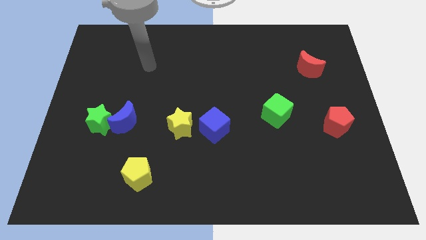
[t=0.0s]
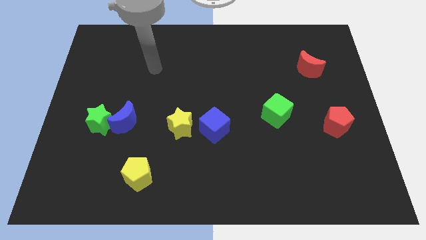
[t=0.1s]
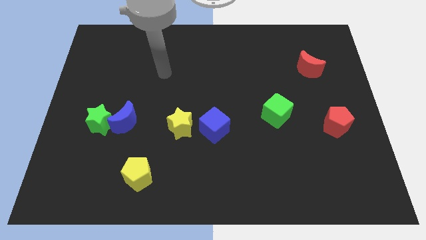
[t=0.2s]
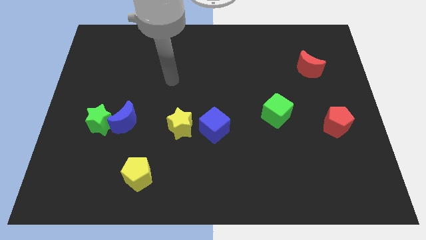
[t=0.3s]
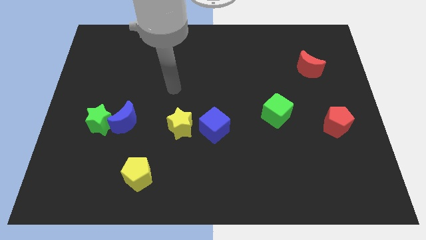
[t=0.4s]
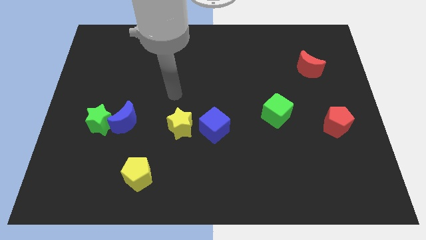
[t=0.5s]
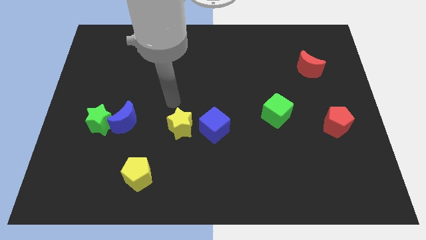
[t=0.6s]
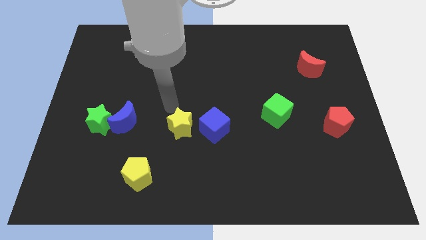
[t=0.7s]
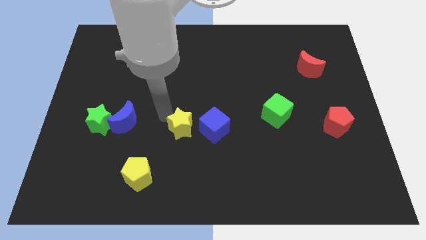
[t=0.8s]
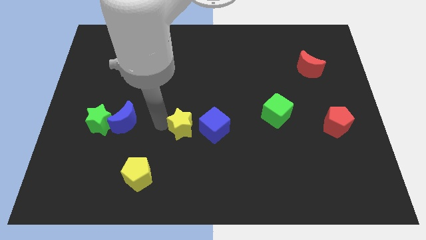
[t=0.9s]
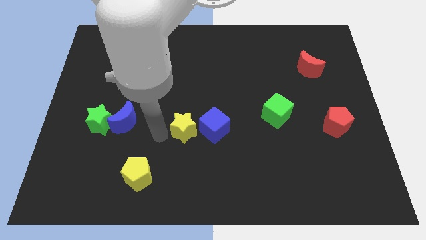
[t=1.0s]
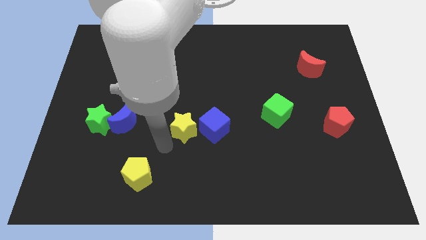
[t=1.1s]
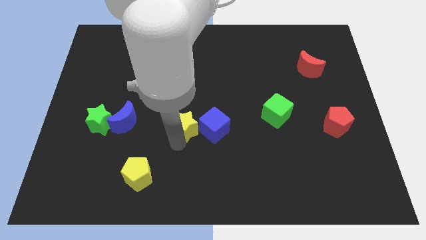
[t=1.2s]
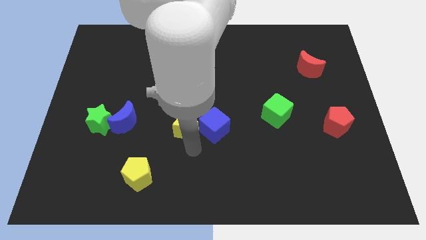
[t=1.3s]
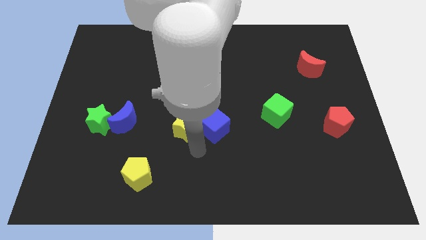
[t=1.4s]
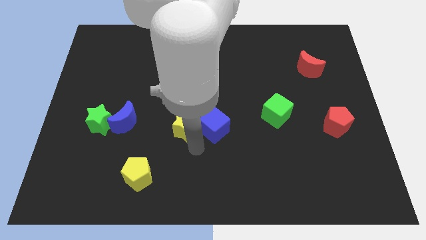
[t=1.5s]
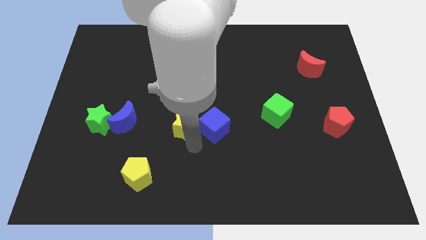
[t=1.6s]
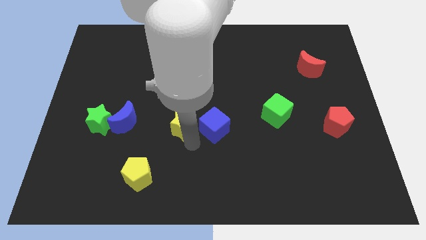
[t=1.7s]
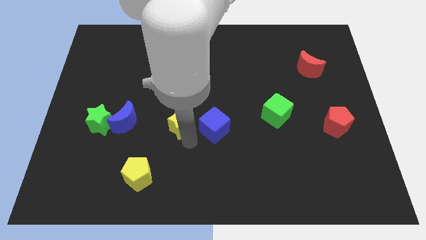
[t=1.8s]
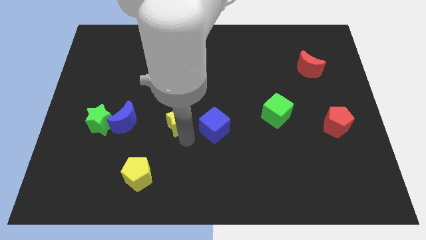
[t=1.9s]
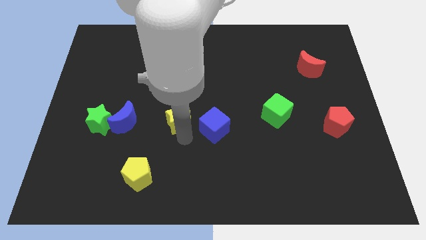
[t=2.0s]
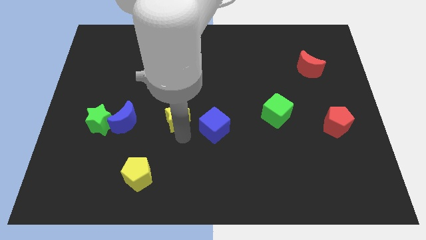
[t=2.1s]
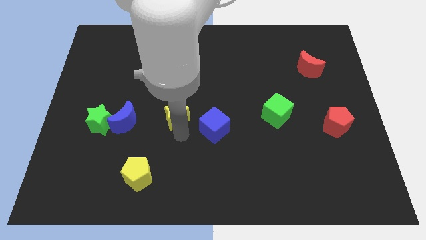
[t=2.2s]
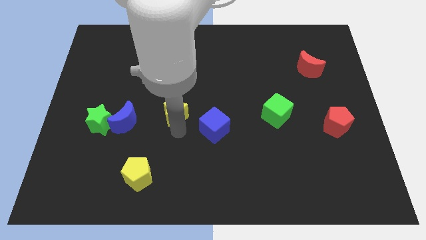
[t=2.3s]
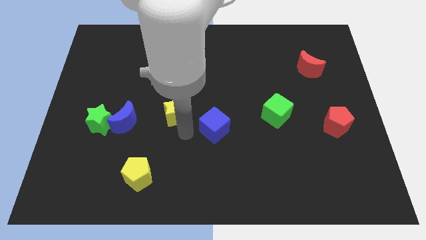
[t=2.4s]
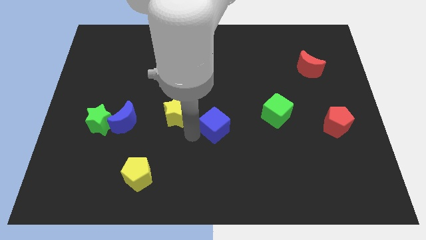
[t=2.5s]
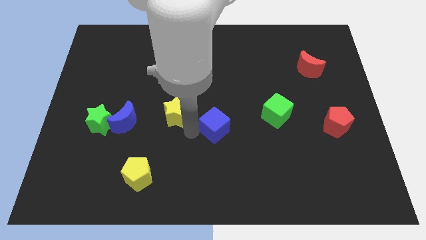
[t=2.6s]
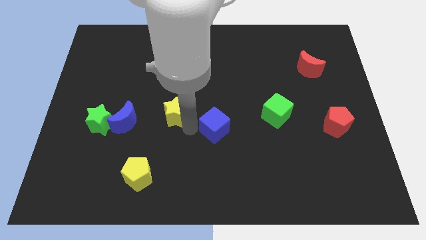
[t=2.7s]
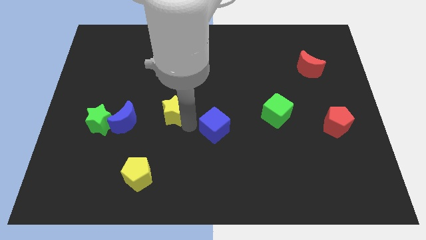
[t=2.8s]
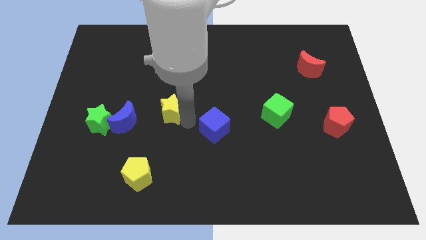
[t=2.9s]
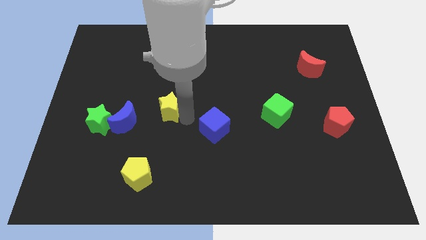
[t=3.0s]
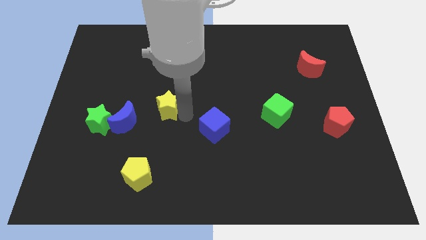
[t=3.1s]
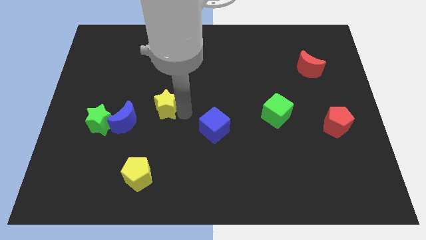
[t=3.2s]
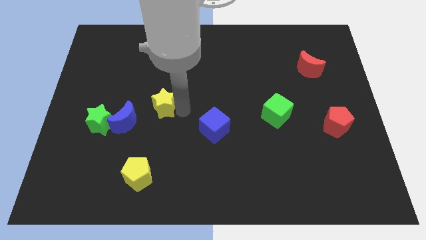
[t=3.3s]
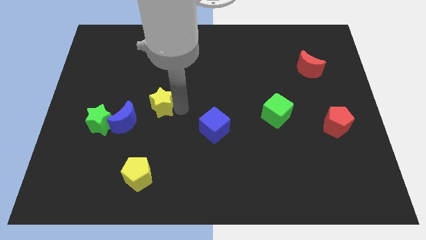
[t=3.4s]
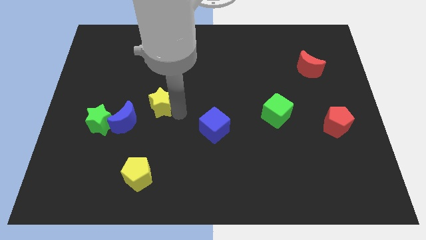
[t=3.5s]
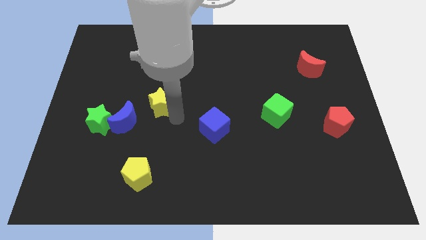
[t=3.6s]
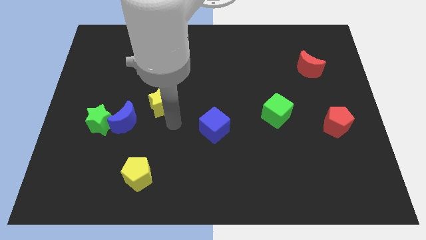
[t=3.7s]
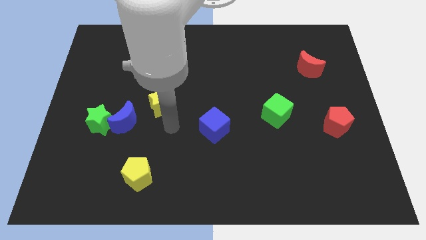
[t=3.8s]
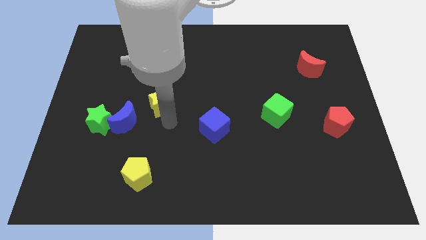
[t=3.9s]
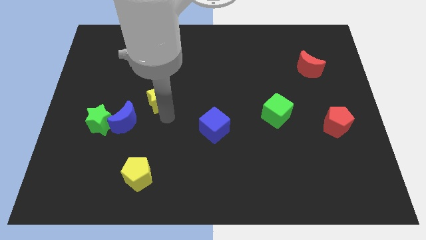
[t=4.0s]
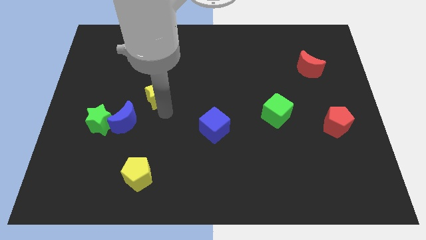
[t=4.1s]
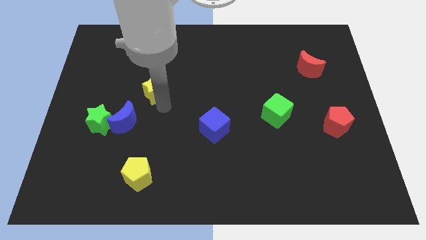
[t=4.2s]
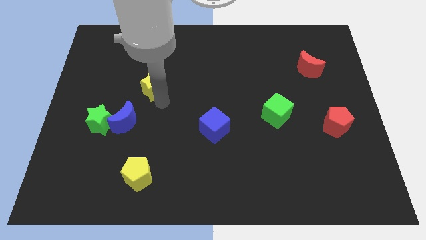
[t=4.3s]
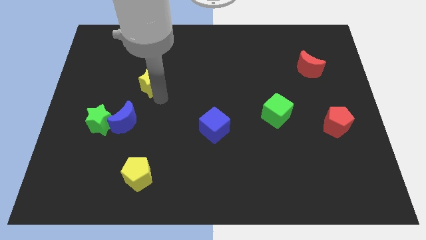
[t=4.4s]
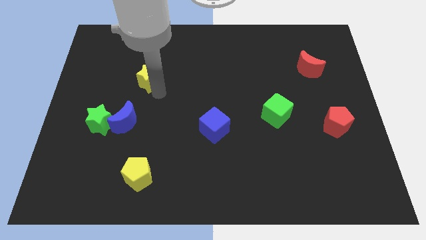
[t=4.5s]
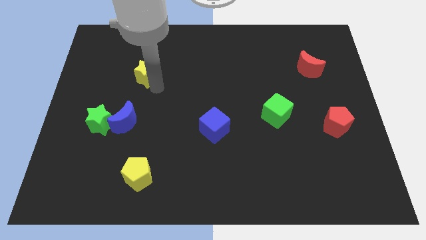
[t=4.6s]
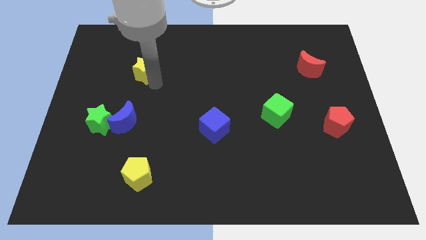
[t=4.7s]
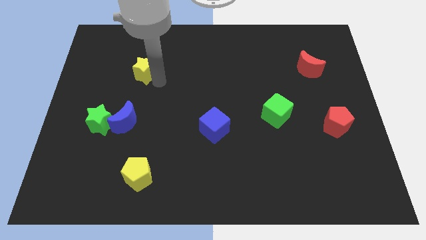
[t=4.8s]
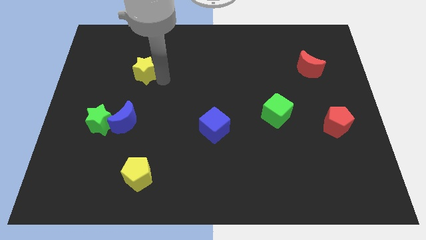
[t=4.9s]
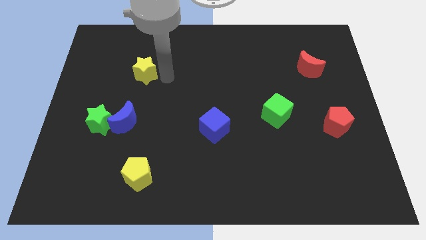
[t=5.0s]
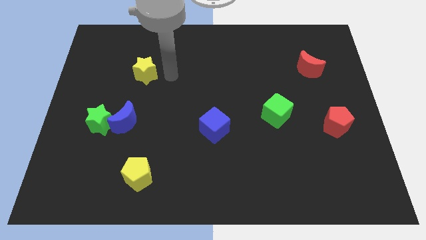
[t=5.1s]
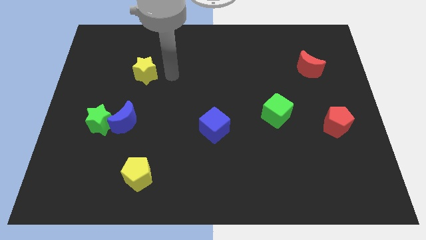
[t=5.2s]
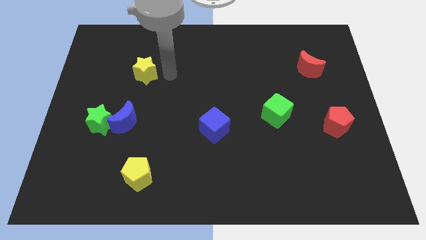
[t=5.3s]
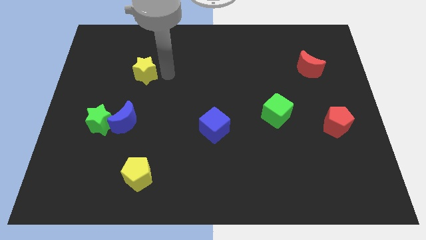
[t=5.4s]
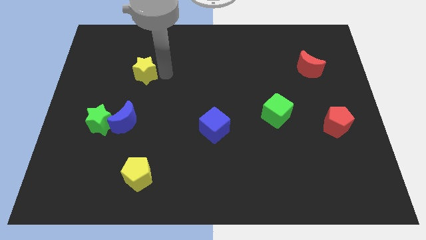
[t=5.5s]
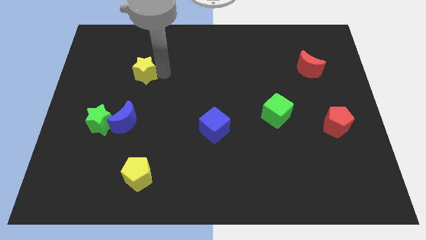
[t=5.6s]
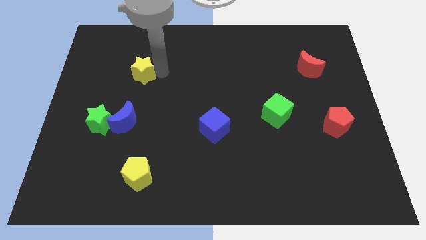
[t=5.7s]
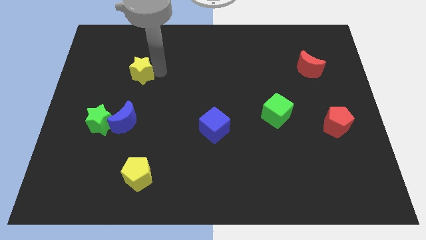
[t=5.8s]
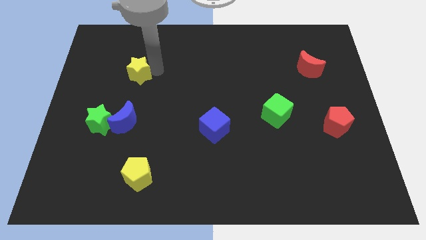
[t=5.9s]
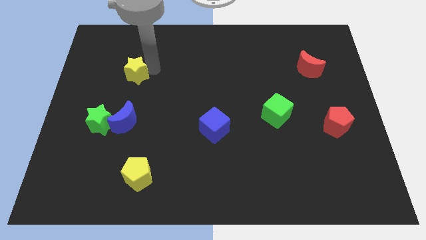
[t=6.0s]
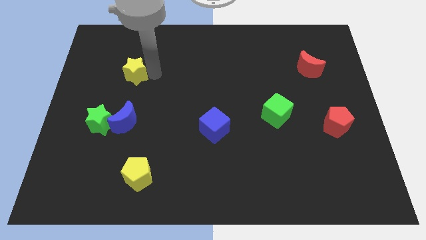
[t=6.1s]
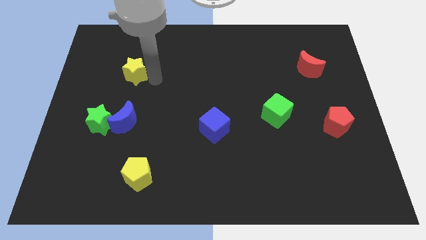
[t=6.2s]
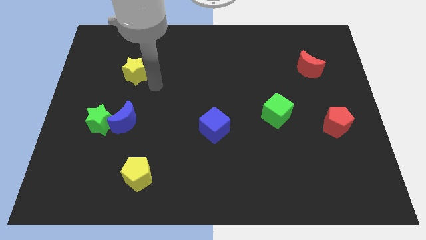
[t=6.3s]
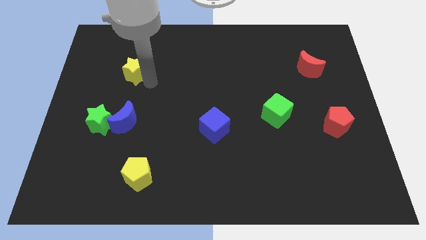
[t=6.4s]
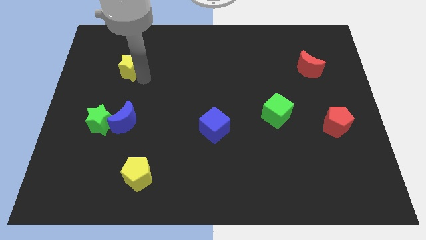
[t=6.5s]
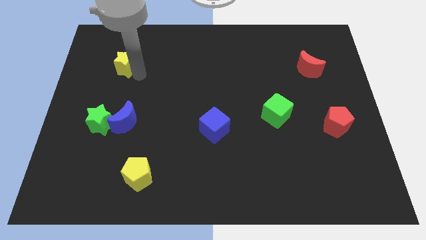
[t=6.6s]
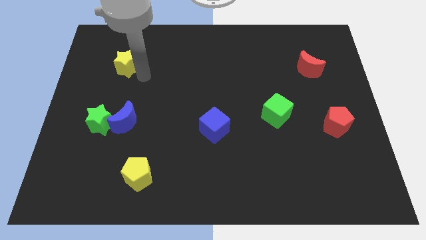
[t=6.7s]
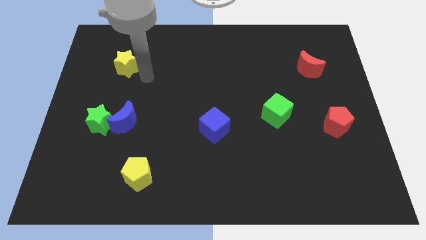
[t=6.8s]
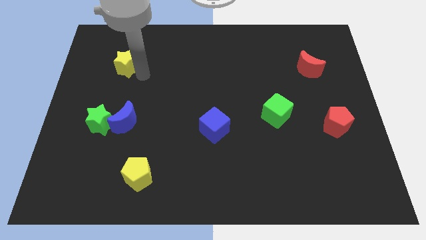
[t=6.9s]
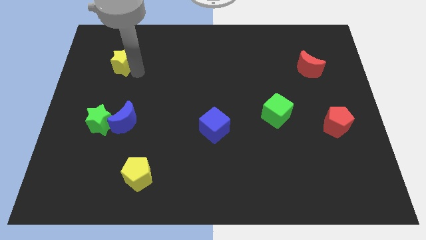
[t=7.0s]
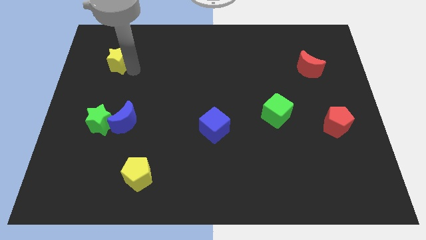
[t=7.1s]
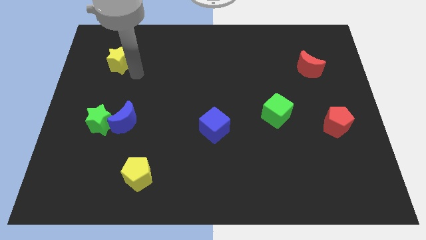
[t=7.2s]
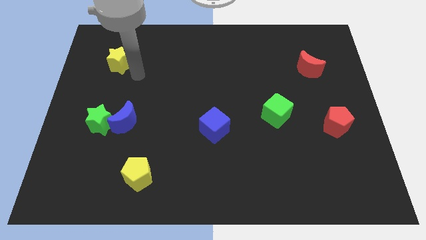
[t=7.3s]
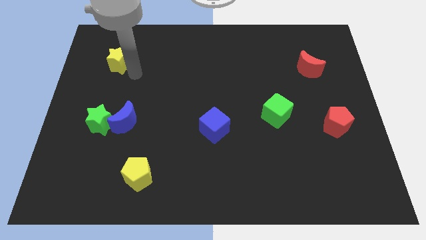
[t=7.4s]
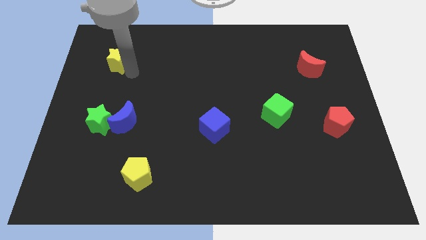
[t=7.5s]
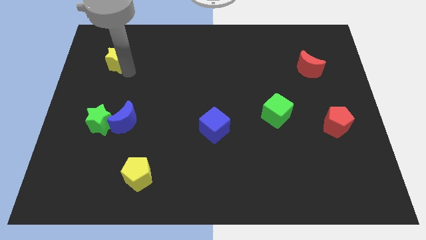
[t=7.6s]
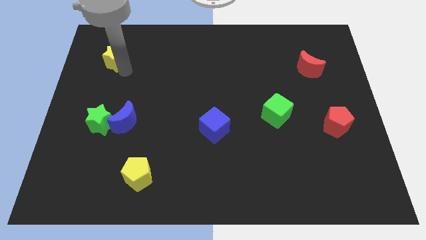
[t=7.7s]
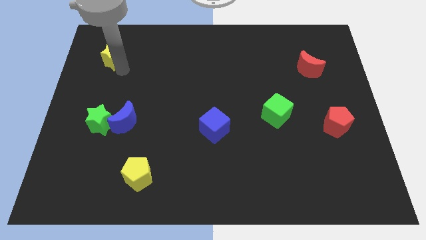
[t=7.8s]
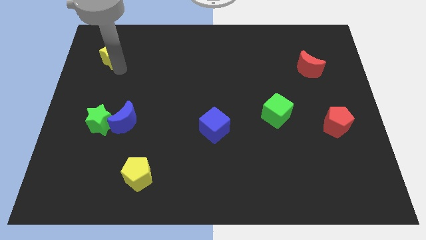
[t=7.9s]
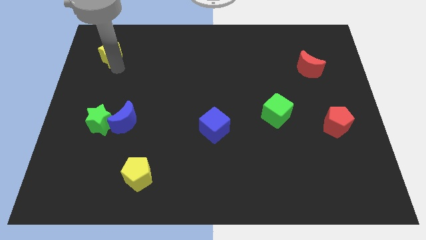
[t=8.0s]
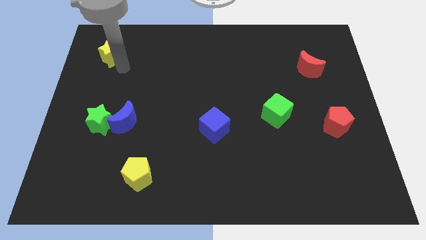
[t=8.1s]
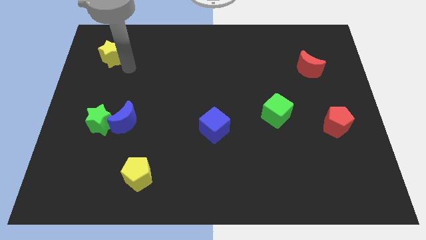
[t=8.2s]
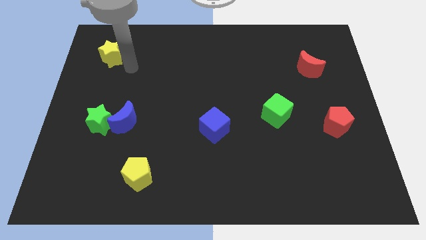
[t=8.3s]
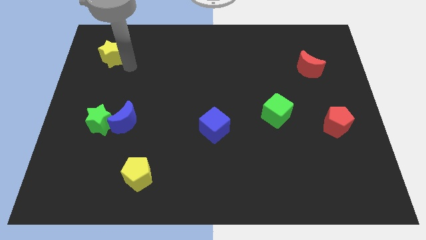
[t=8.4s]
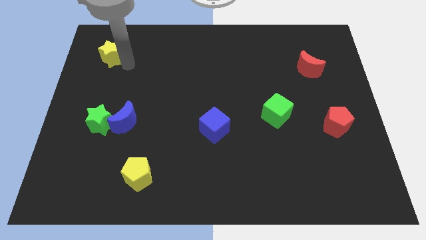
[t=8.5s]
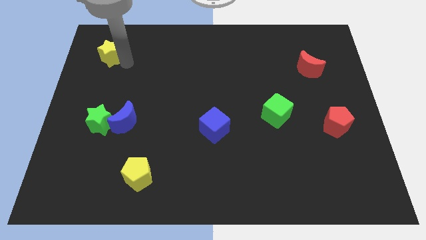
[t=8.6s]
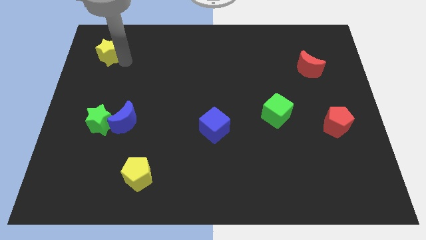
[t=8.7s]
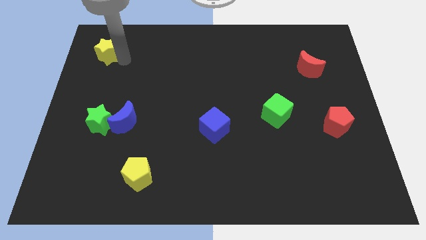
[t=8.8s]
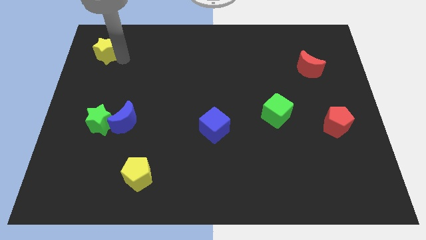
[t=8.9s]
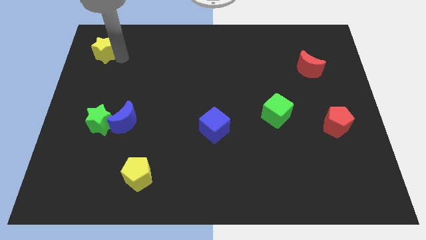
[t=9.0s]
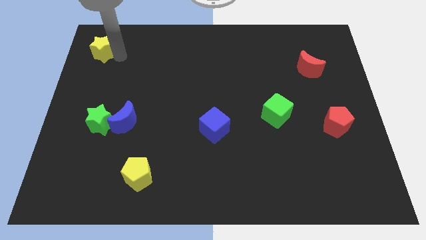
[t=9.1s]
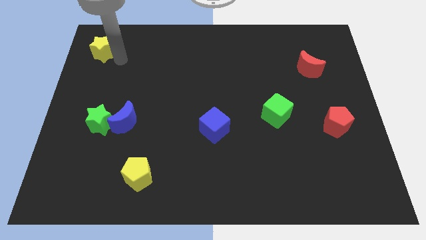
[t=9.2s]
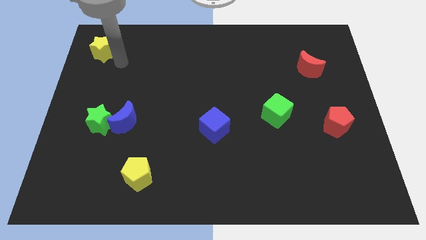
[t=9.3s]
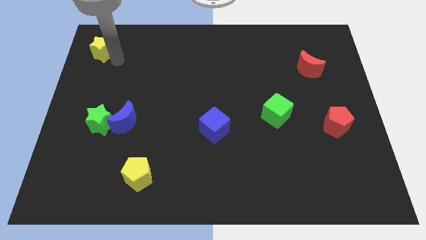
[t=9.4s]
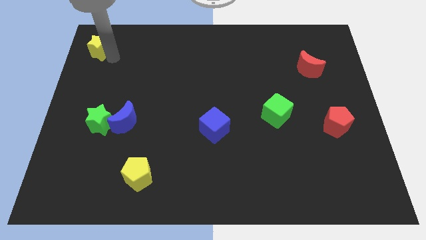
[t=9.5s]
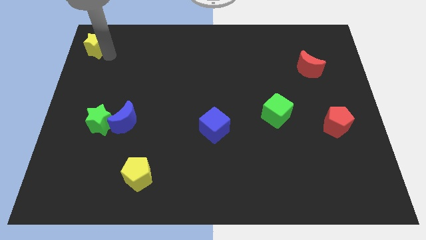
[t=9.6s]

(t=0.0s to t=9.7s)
push the yellow star to the top left corner
